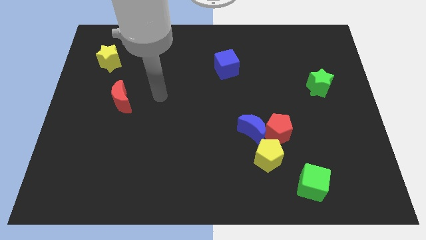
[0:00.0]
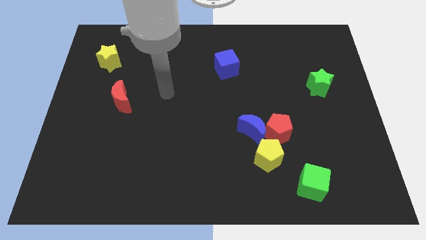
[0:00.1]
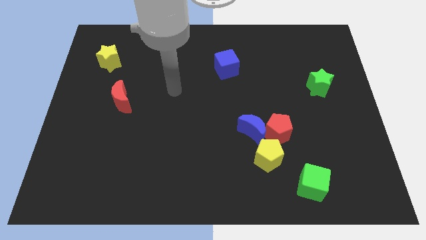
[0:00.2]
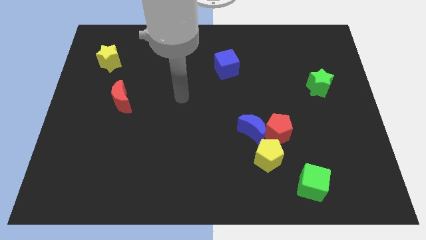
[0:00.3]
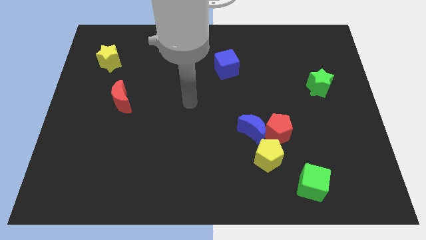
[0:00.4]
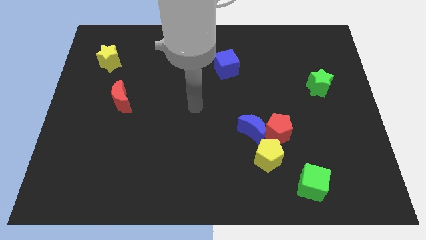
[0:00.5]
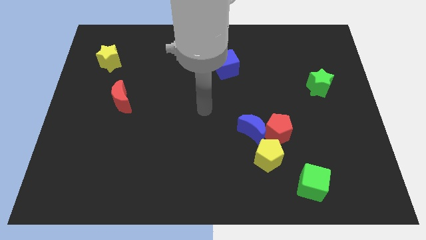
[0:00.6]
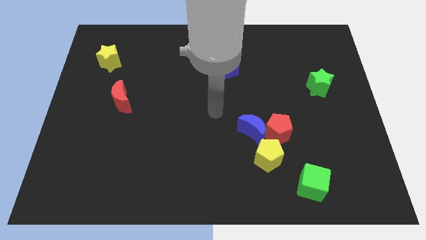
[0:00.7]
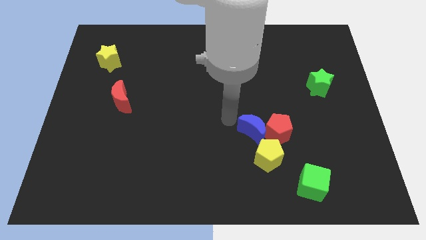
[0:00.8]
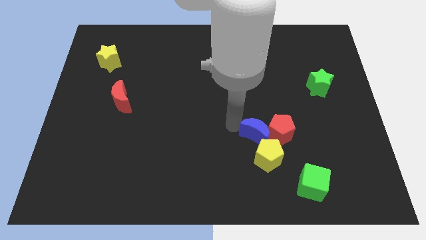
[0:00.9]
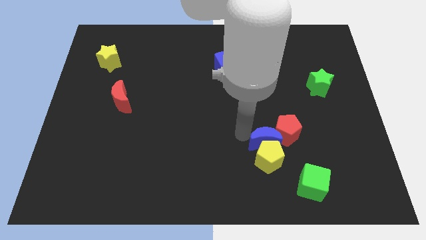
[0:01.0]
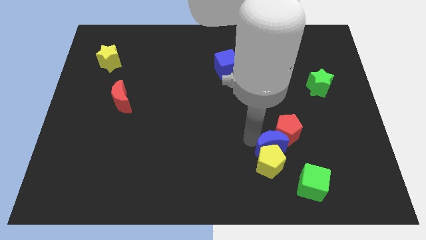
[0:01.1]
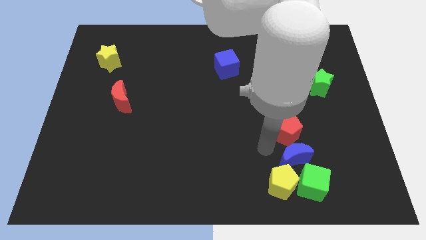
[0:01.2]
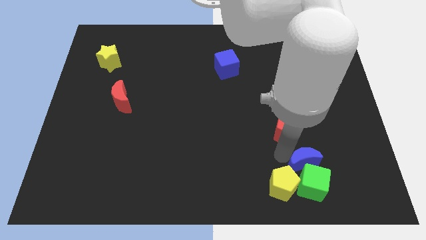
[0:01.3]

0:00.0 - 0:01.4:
move the red pentagon away from the blue moon and yellow pentagon

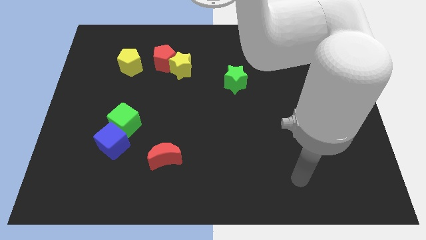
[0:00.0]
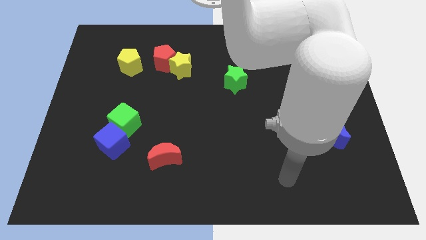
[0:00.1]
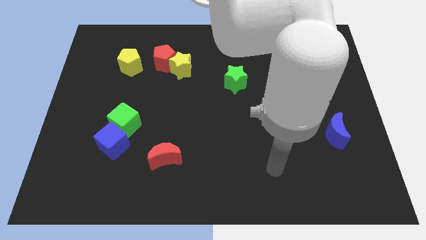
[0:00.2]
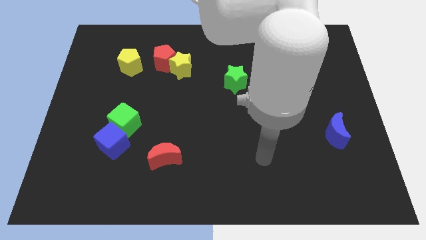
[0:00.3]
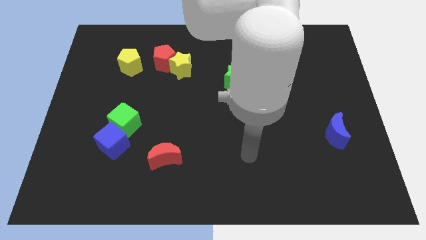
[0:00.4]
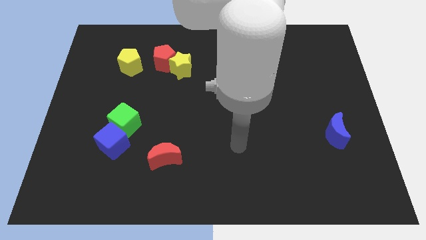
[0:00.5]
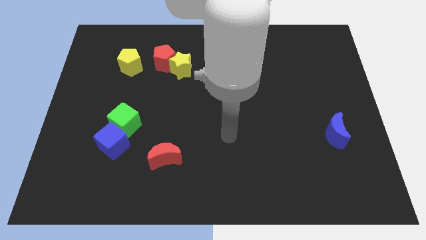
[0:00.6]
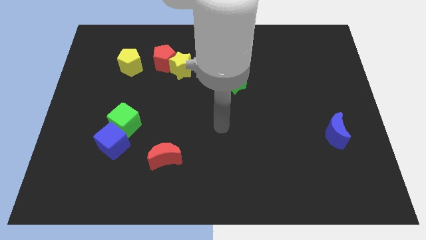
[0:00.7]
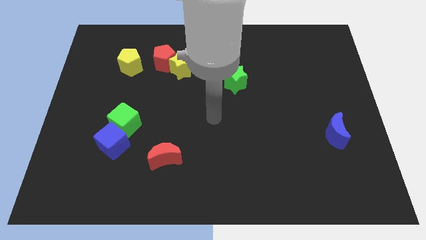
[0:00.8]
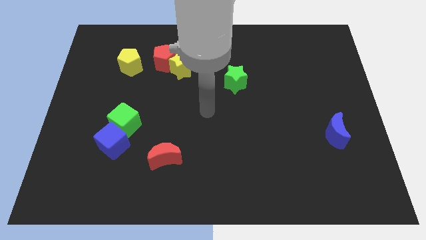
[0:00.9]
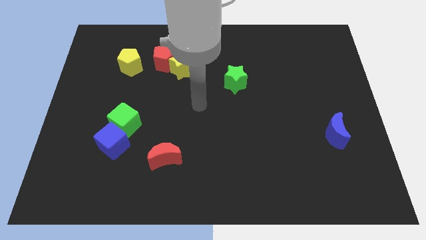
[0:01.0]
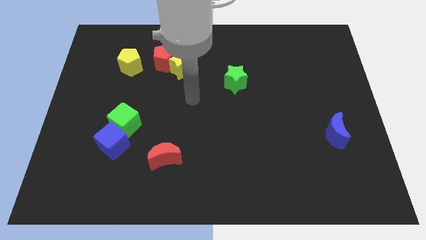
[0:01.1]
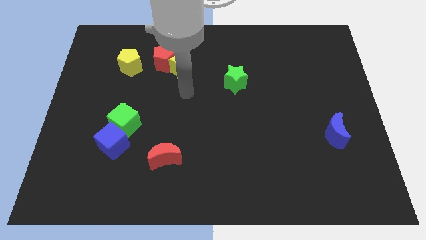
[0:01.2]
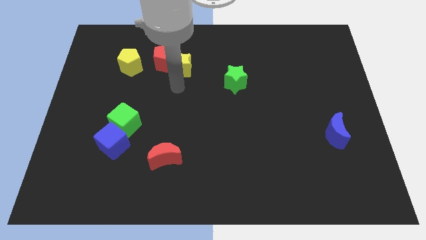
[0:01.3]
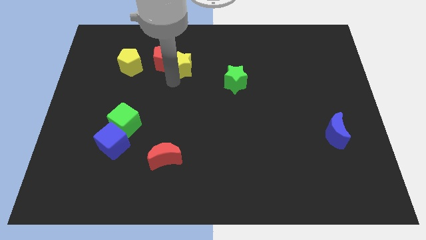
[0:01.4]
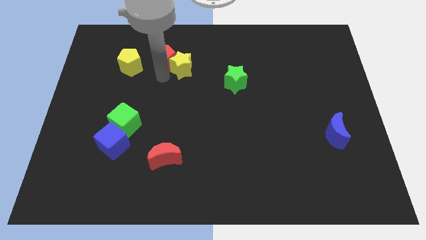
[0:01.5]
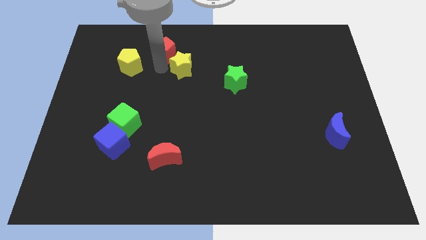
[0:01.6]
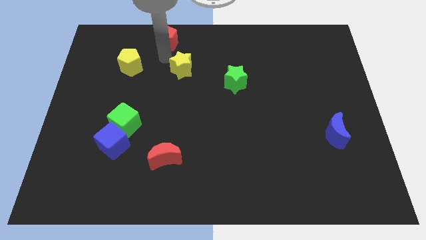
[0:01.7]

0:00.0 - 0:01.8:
separate the yellow star from the red pentagon

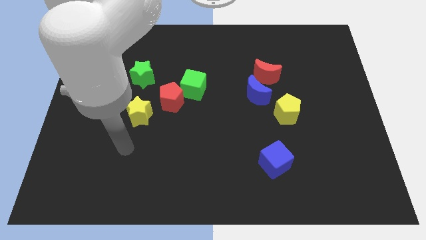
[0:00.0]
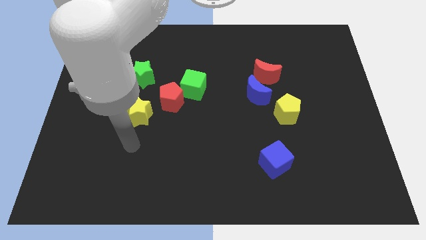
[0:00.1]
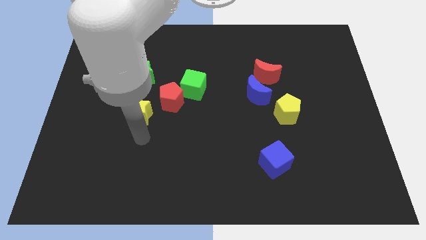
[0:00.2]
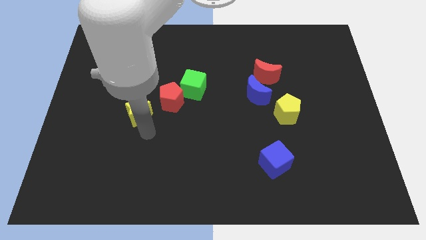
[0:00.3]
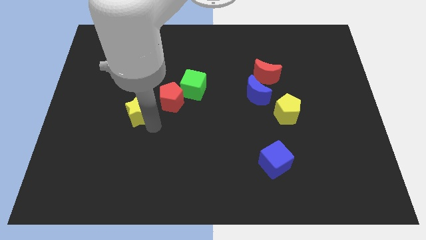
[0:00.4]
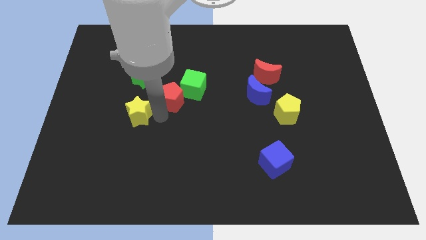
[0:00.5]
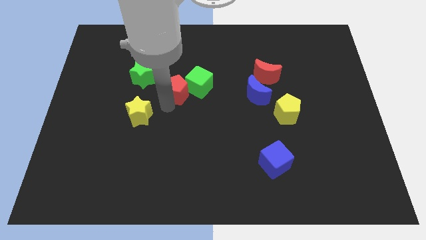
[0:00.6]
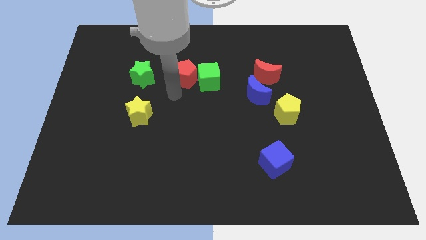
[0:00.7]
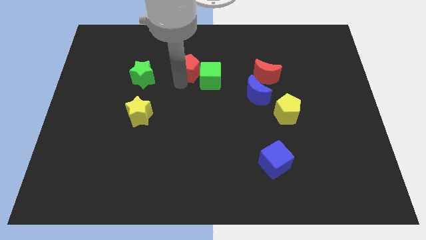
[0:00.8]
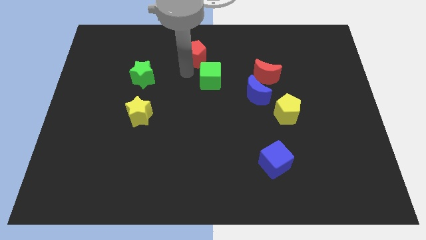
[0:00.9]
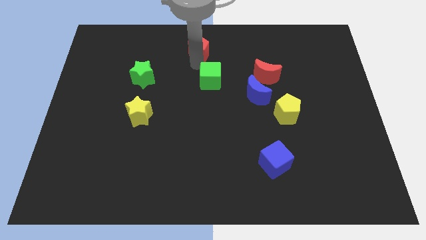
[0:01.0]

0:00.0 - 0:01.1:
separate the green cube from the red pentagon

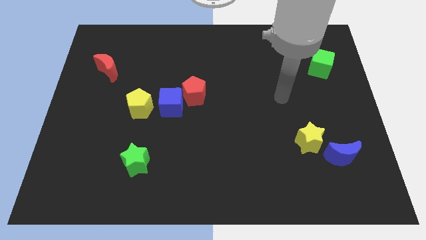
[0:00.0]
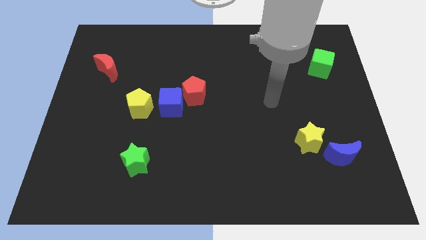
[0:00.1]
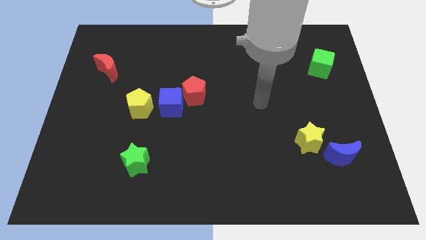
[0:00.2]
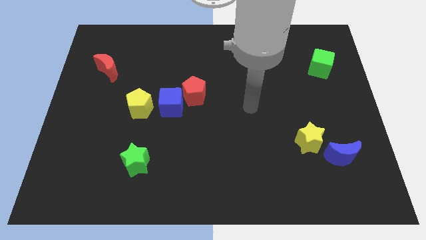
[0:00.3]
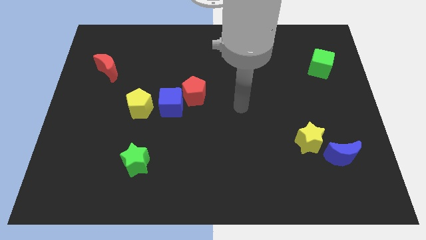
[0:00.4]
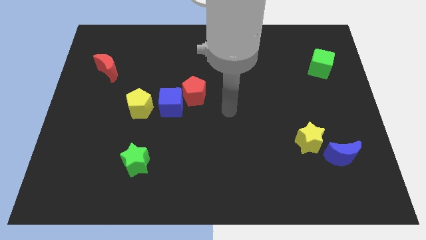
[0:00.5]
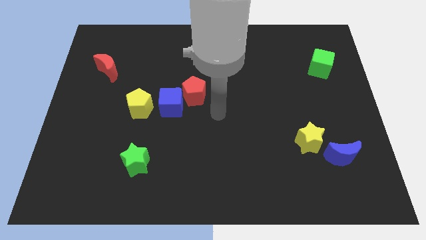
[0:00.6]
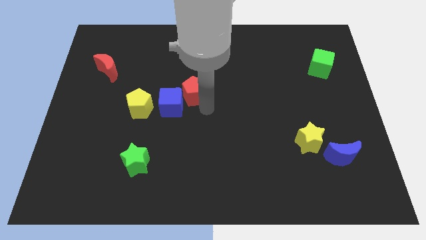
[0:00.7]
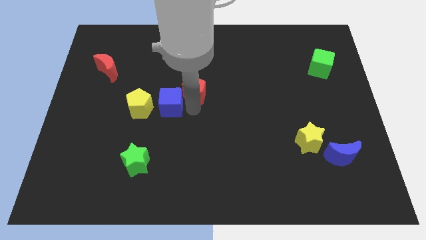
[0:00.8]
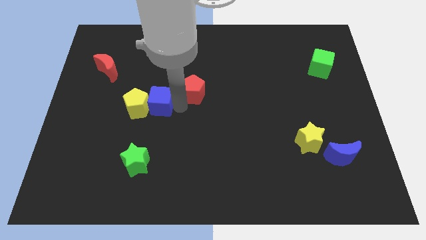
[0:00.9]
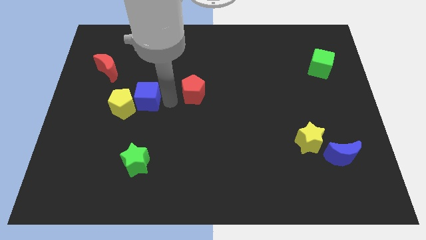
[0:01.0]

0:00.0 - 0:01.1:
pull the red pentagon apart from the blue cube

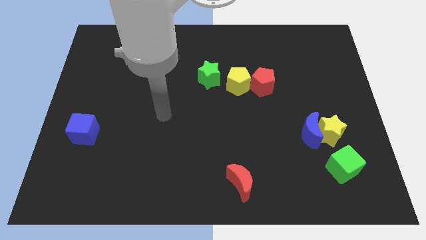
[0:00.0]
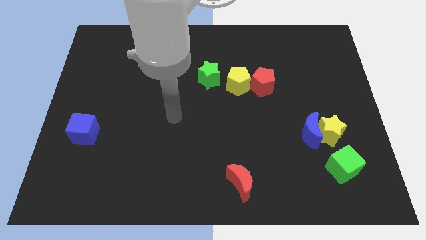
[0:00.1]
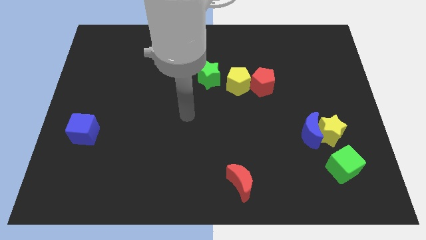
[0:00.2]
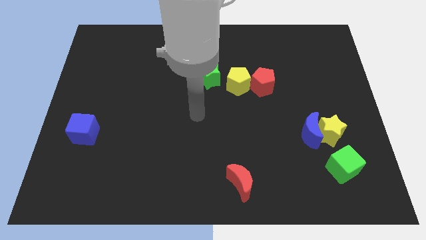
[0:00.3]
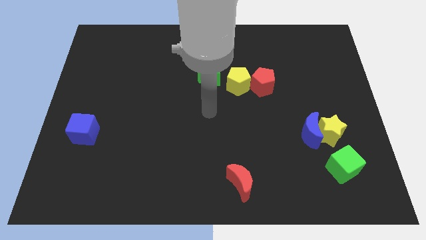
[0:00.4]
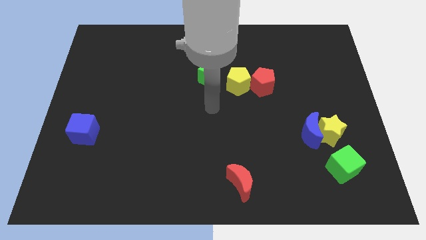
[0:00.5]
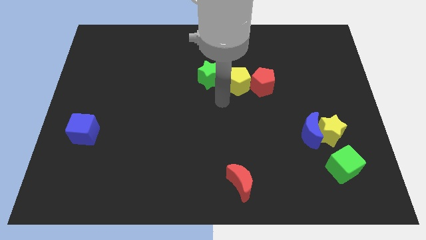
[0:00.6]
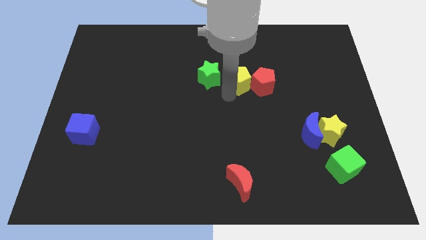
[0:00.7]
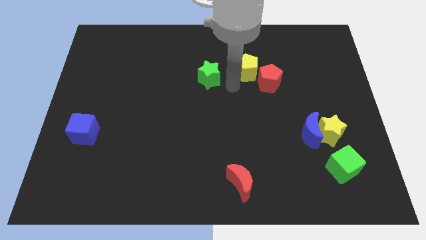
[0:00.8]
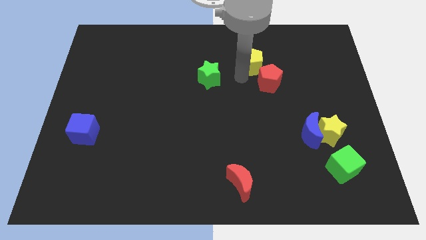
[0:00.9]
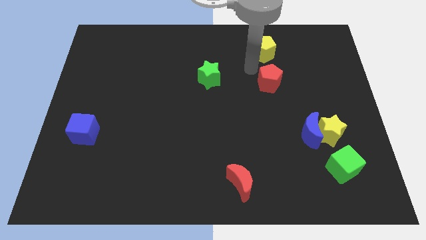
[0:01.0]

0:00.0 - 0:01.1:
separate the red pentagon from the yellow pentagon

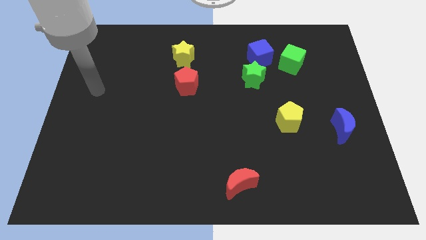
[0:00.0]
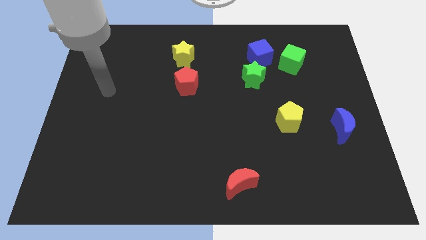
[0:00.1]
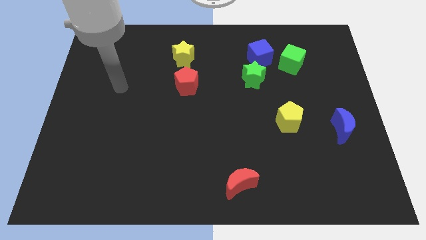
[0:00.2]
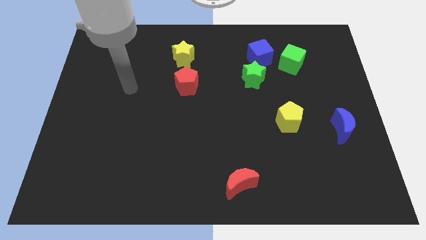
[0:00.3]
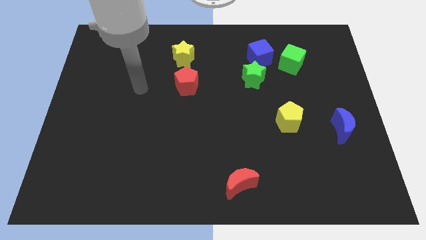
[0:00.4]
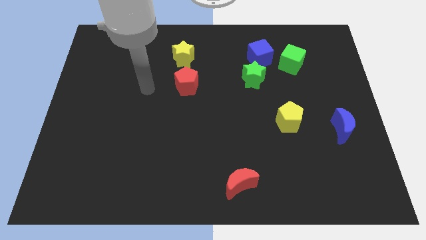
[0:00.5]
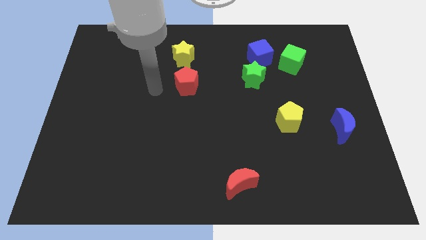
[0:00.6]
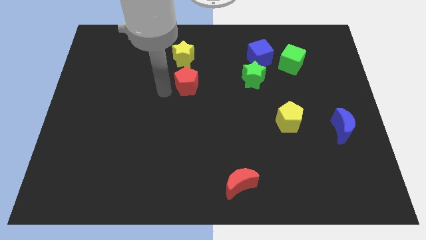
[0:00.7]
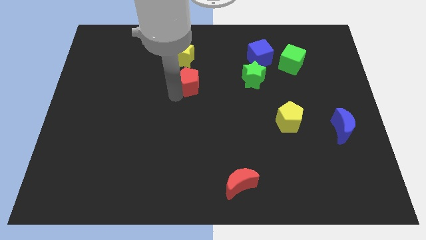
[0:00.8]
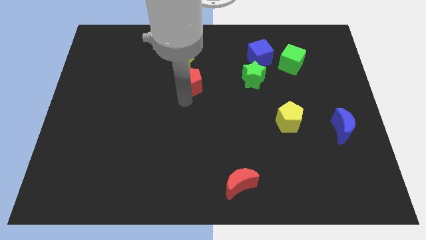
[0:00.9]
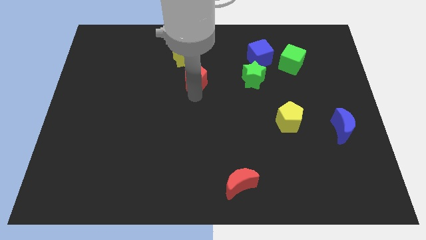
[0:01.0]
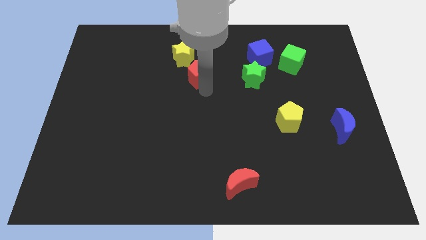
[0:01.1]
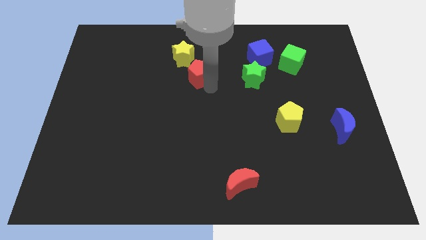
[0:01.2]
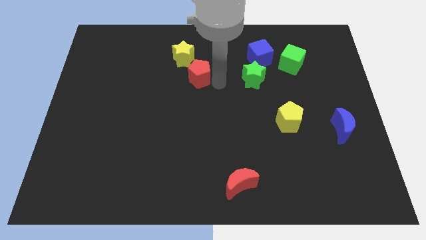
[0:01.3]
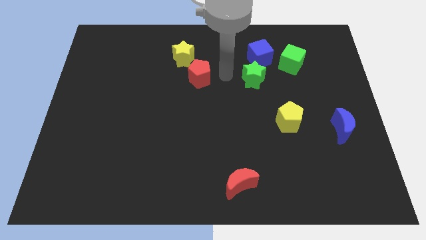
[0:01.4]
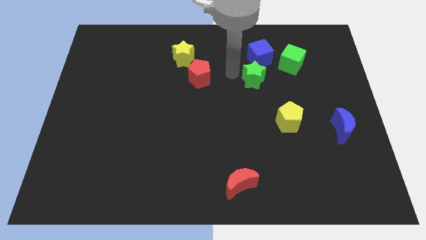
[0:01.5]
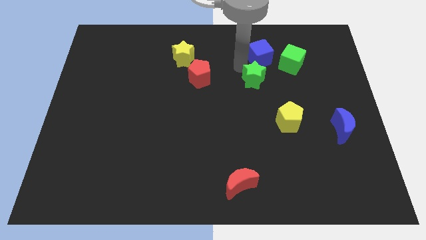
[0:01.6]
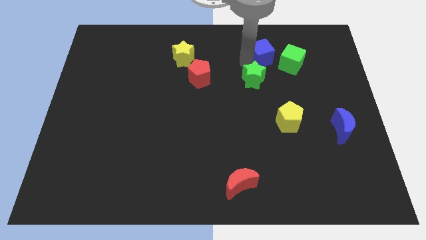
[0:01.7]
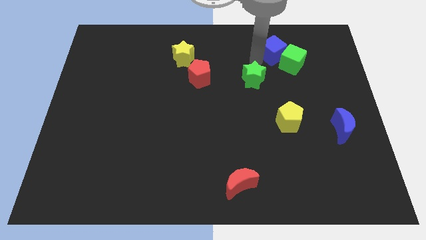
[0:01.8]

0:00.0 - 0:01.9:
pull the green star apart from the blue cube

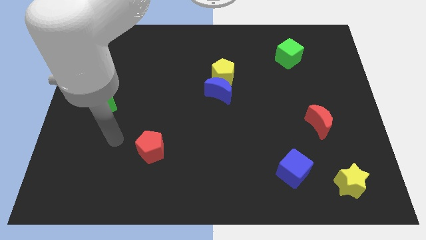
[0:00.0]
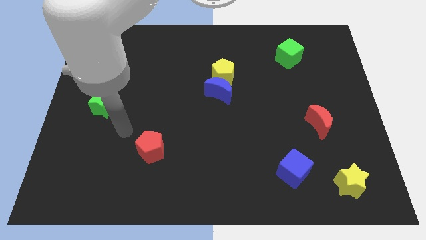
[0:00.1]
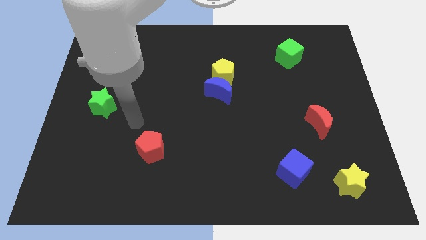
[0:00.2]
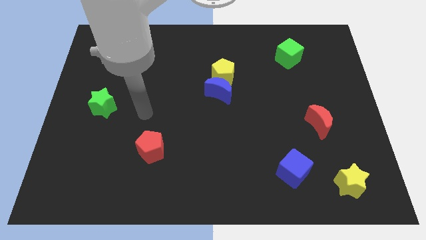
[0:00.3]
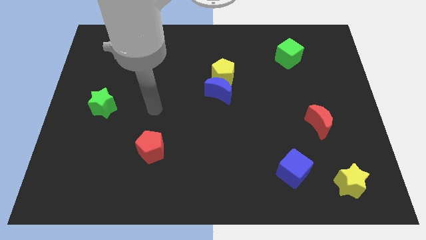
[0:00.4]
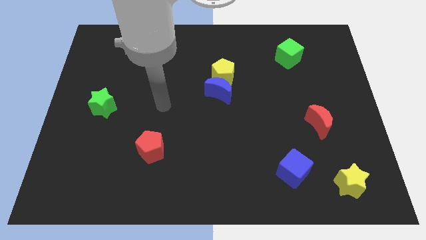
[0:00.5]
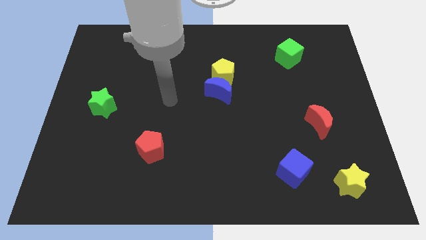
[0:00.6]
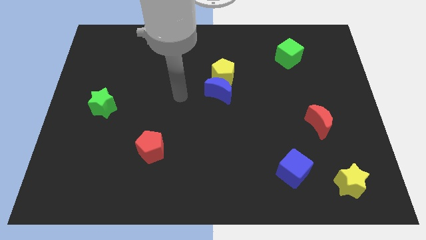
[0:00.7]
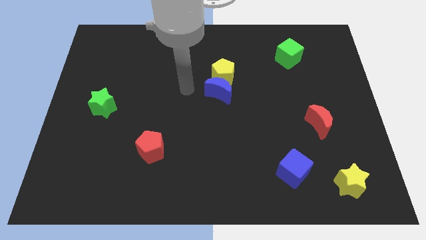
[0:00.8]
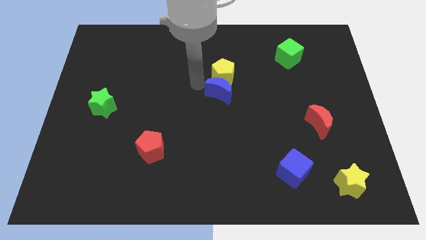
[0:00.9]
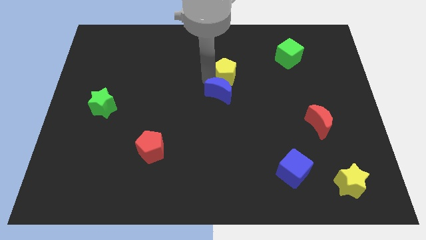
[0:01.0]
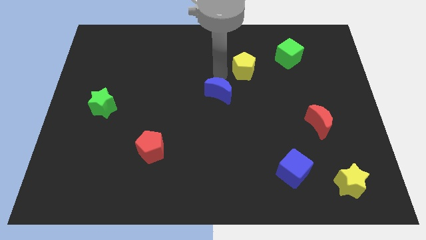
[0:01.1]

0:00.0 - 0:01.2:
pull the blue moon apart from the yellow pentagon
